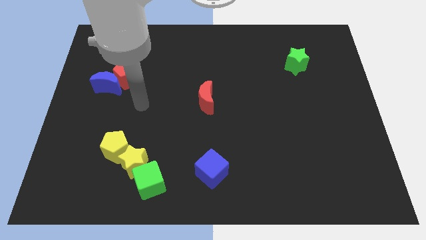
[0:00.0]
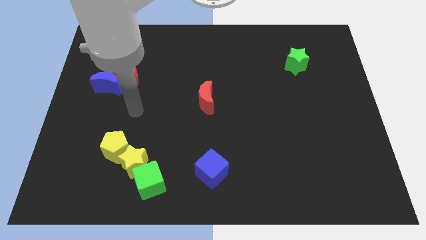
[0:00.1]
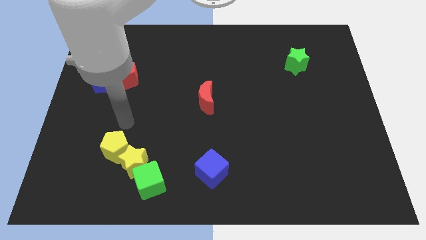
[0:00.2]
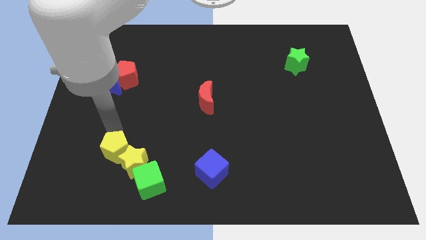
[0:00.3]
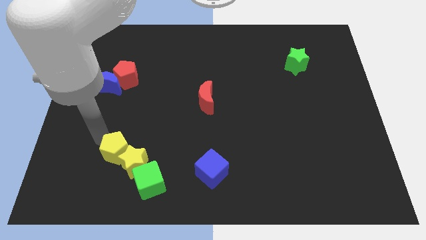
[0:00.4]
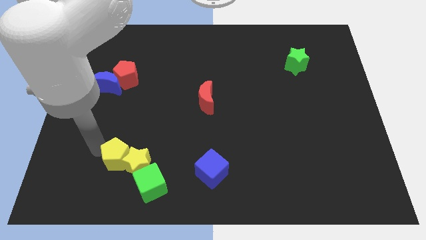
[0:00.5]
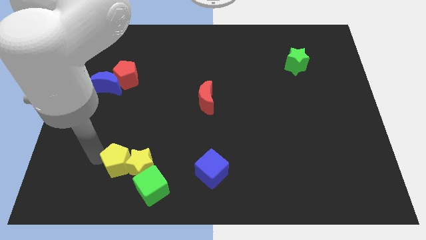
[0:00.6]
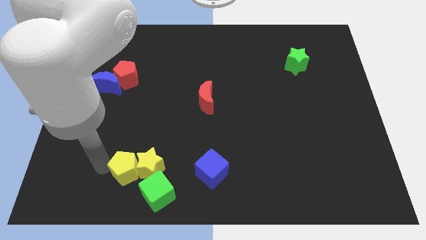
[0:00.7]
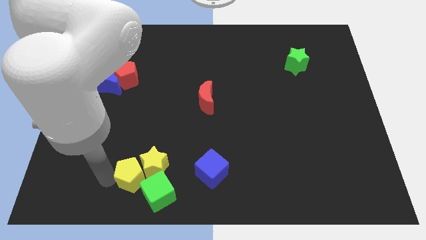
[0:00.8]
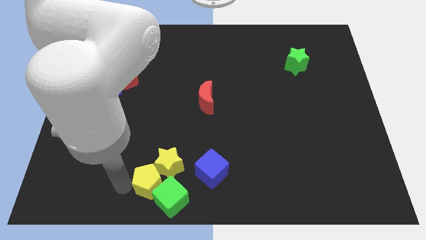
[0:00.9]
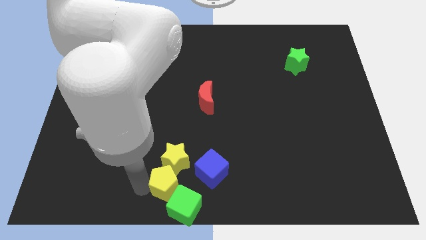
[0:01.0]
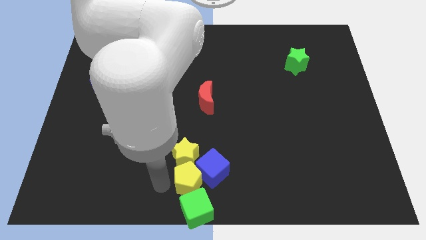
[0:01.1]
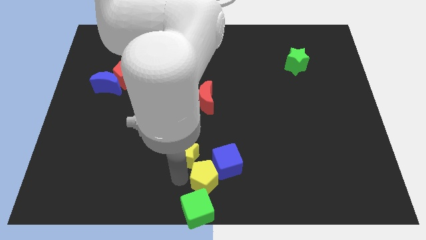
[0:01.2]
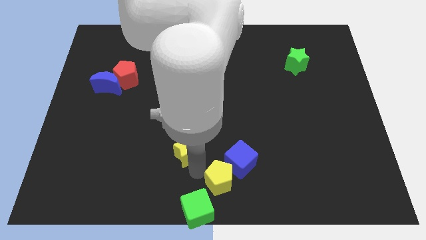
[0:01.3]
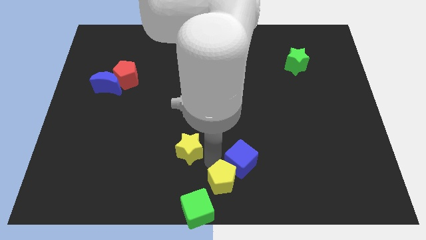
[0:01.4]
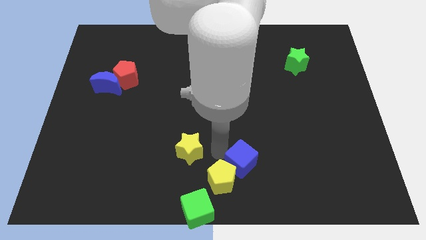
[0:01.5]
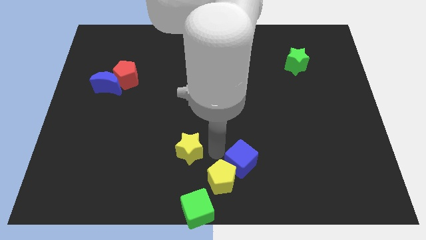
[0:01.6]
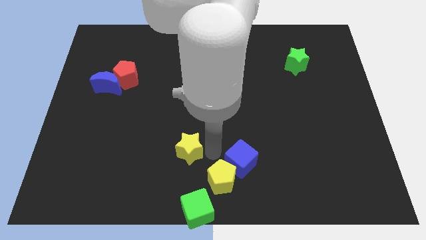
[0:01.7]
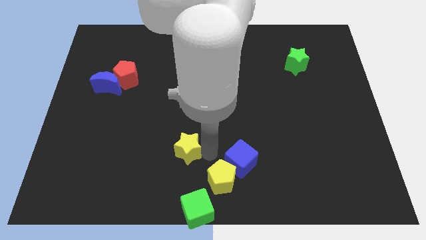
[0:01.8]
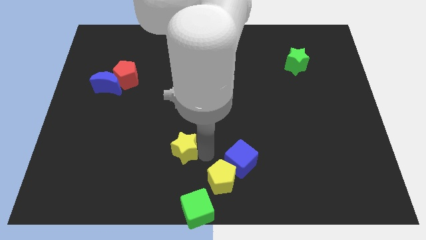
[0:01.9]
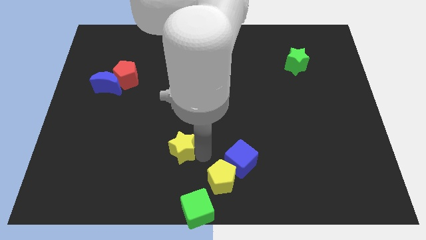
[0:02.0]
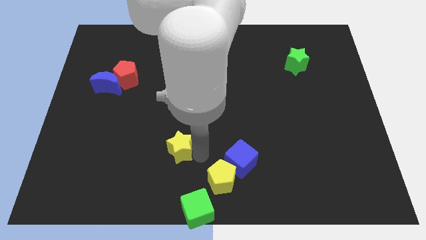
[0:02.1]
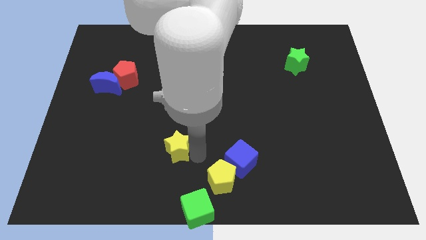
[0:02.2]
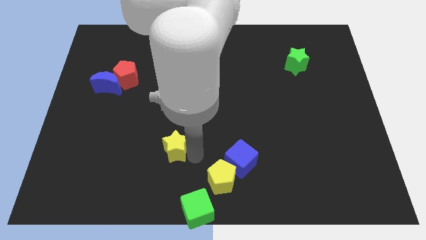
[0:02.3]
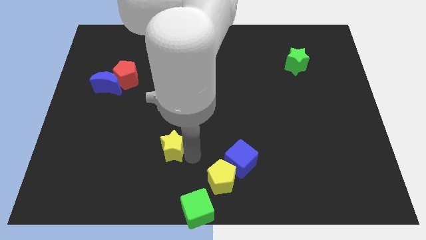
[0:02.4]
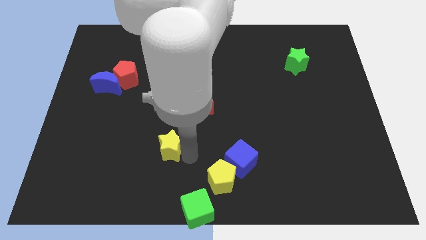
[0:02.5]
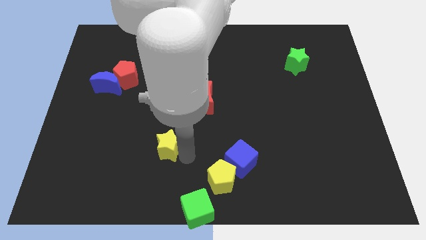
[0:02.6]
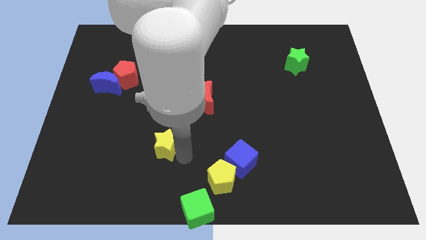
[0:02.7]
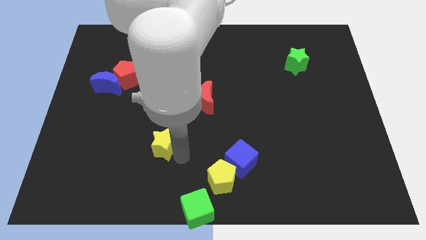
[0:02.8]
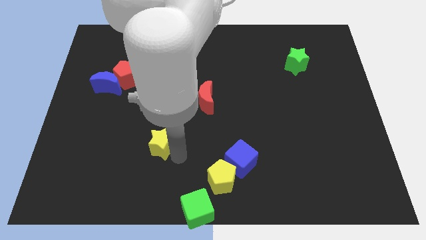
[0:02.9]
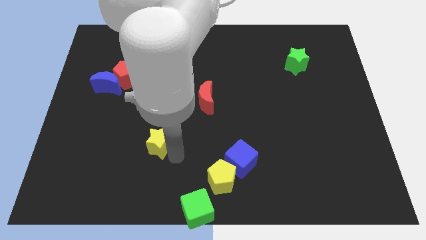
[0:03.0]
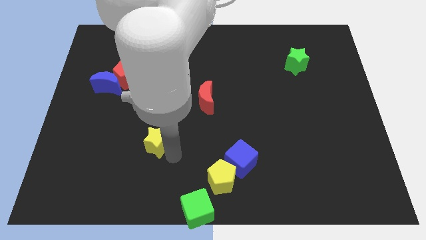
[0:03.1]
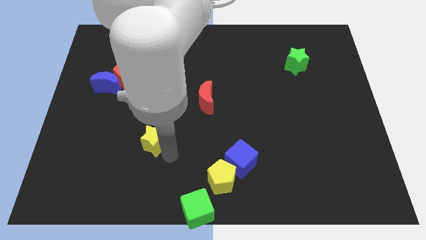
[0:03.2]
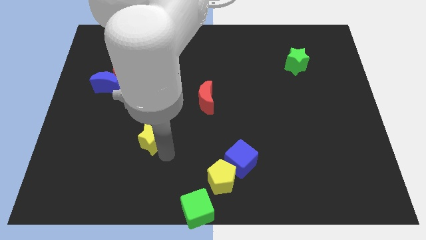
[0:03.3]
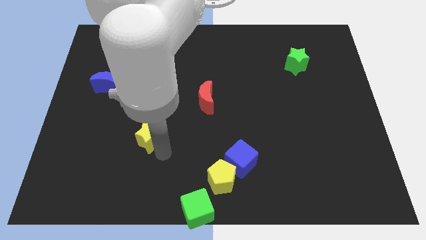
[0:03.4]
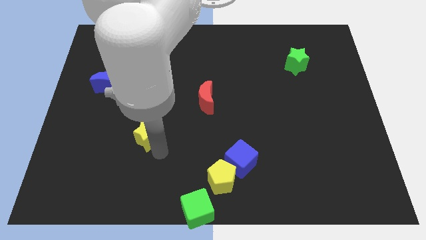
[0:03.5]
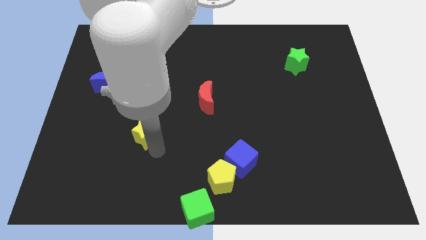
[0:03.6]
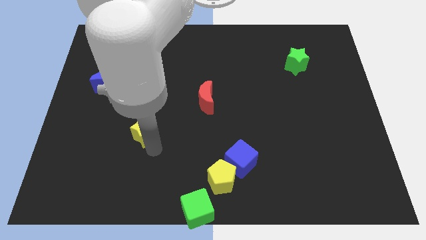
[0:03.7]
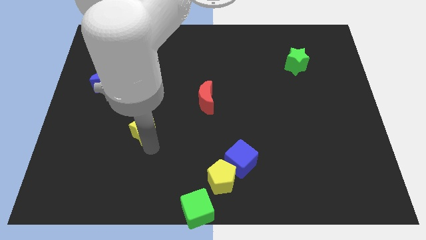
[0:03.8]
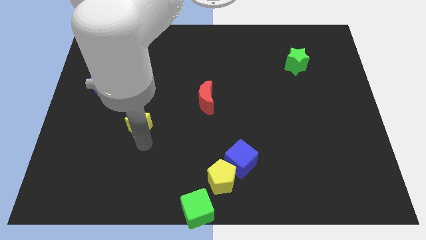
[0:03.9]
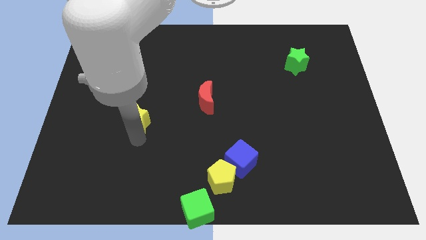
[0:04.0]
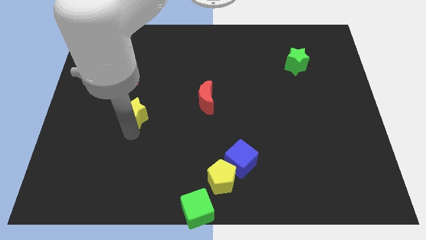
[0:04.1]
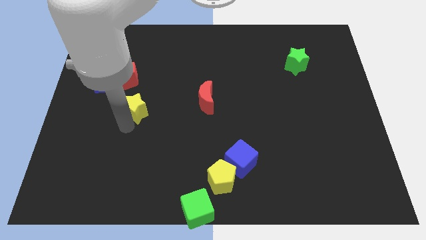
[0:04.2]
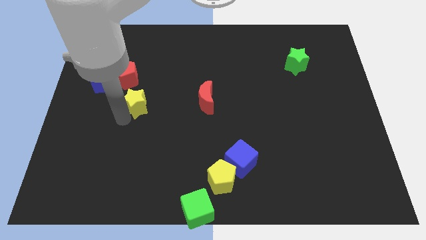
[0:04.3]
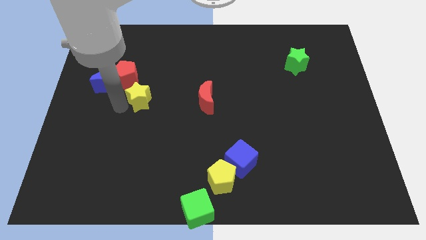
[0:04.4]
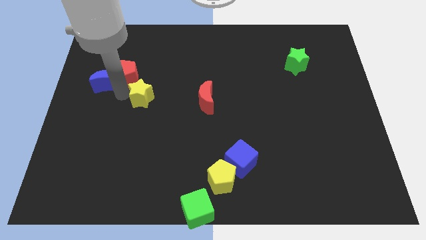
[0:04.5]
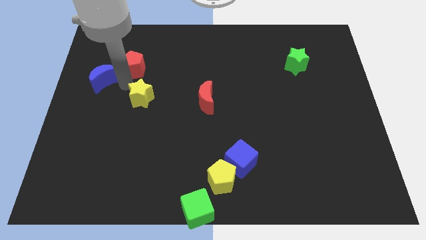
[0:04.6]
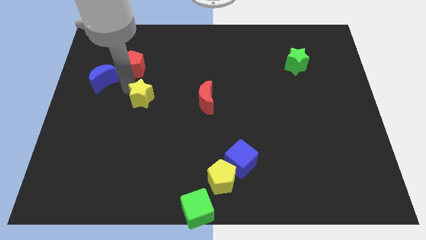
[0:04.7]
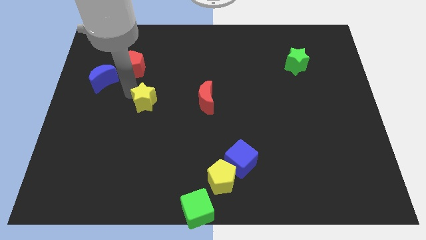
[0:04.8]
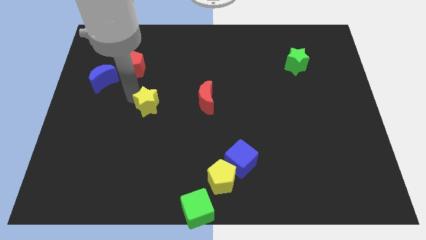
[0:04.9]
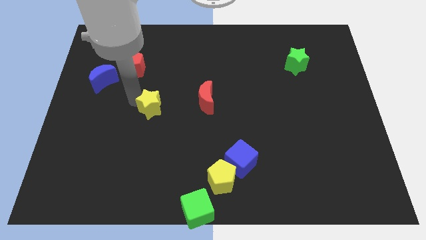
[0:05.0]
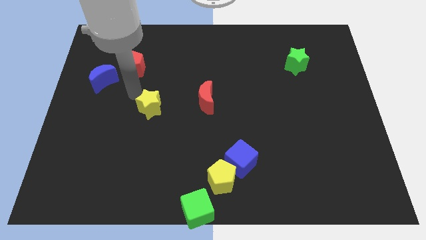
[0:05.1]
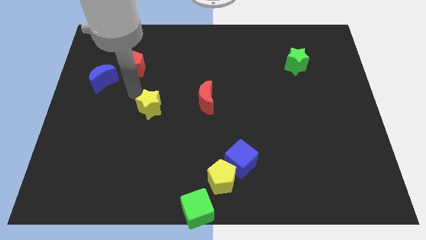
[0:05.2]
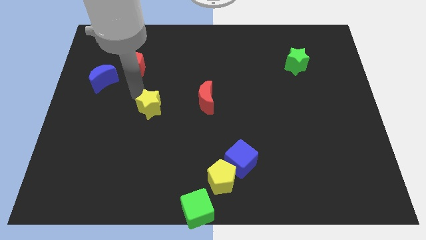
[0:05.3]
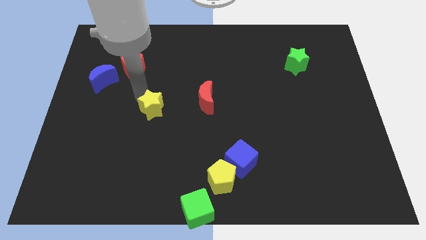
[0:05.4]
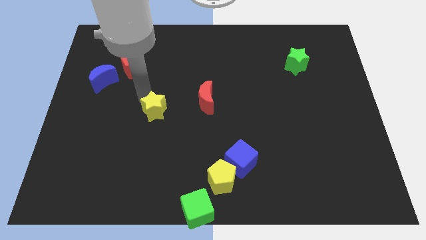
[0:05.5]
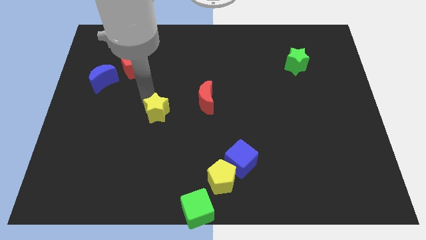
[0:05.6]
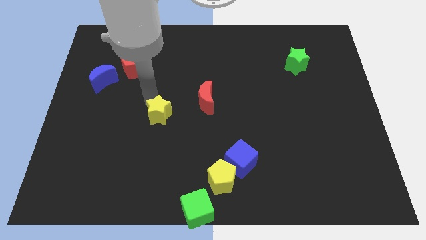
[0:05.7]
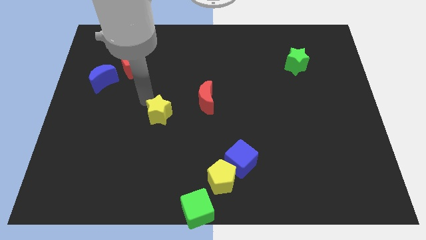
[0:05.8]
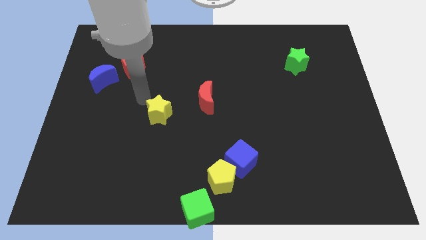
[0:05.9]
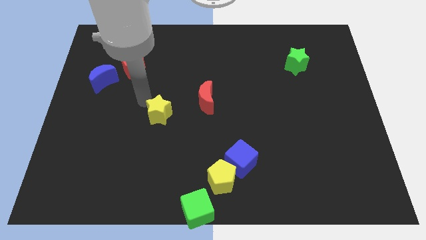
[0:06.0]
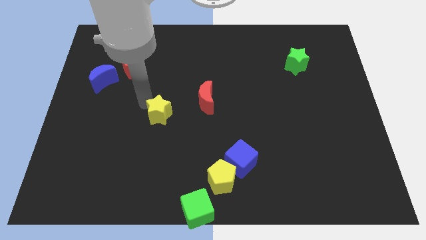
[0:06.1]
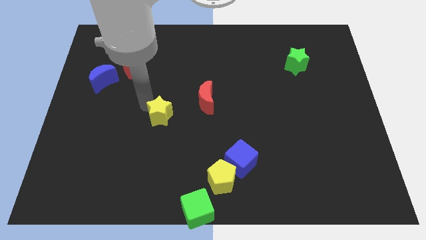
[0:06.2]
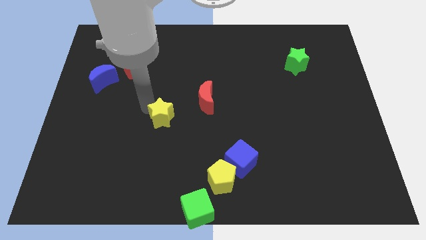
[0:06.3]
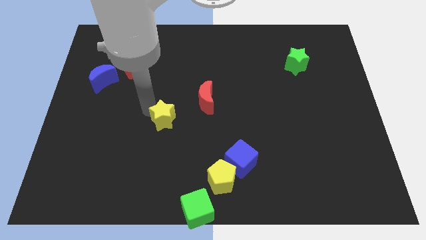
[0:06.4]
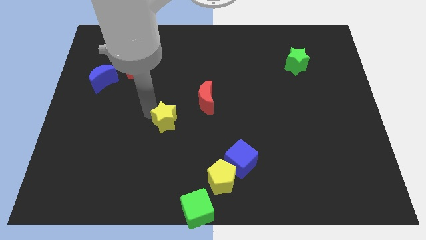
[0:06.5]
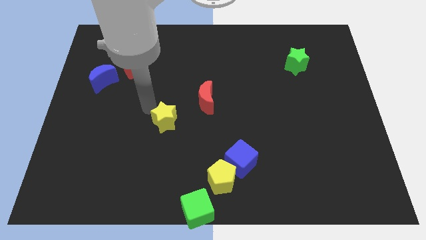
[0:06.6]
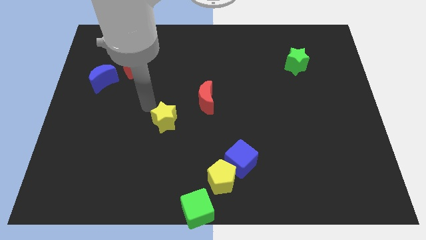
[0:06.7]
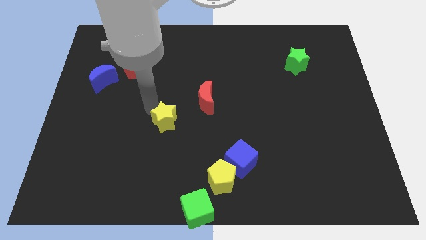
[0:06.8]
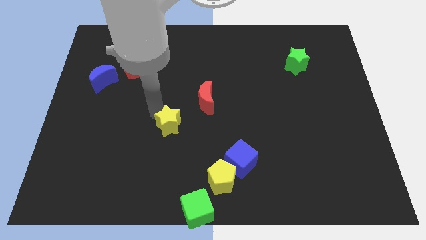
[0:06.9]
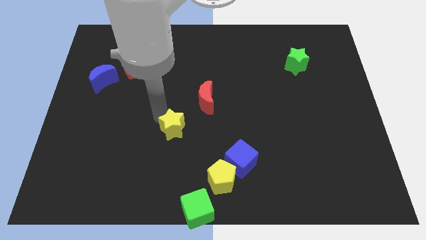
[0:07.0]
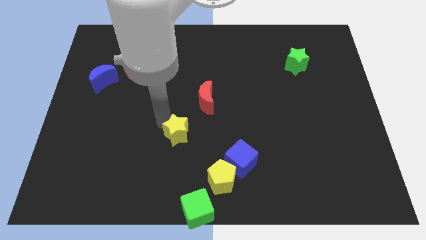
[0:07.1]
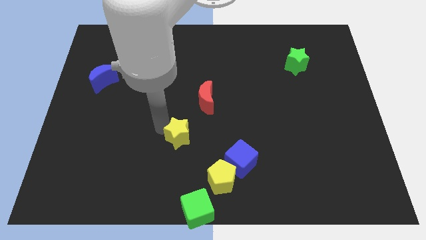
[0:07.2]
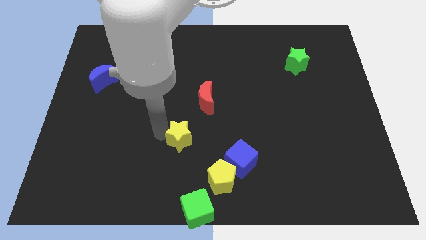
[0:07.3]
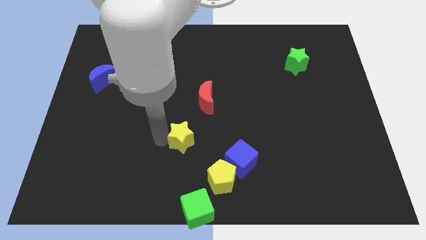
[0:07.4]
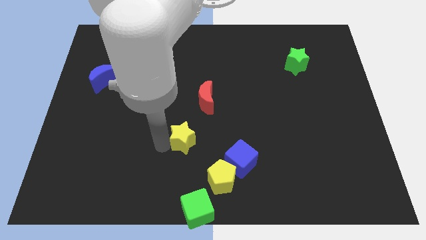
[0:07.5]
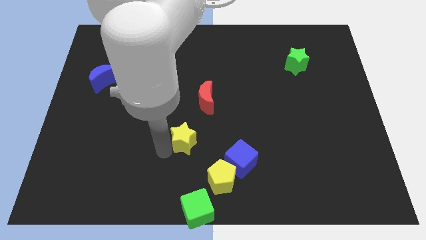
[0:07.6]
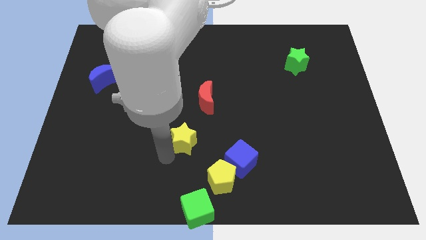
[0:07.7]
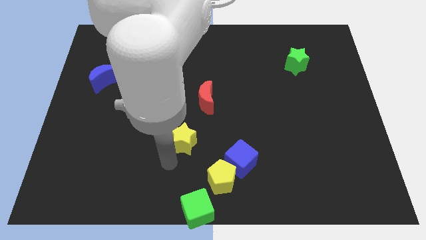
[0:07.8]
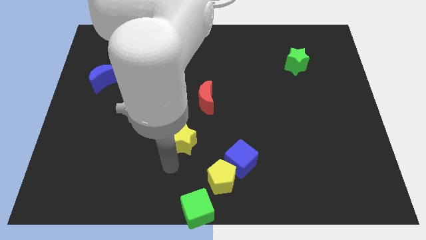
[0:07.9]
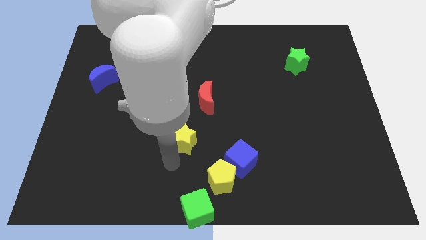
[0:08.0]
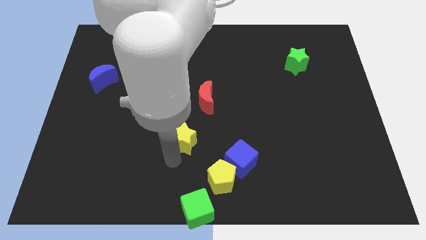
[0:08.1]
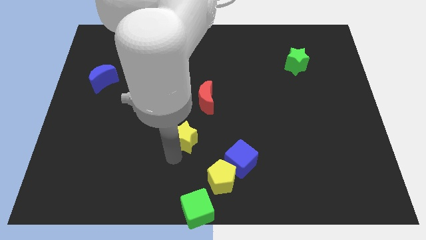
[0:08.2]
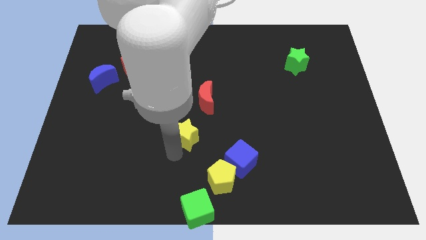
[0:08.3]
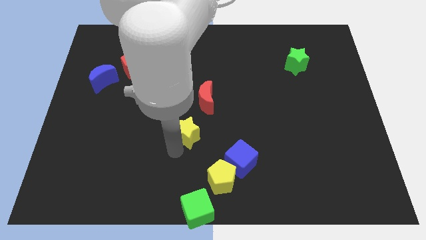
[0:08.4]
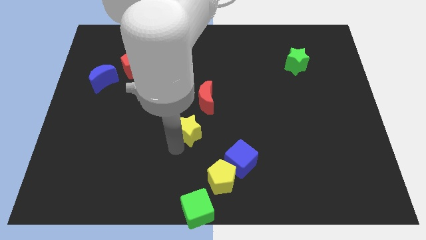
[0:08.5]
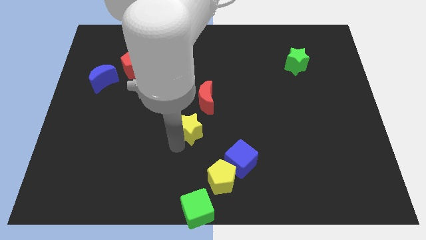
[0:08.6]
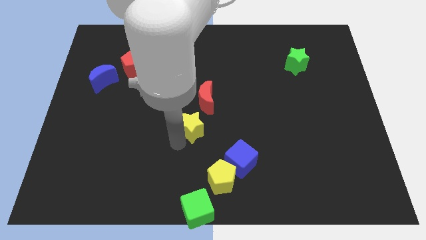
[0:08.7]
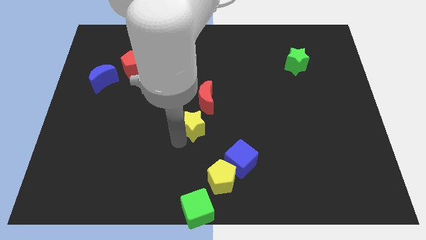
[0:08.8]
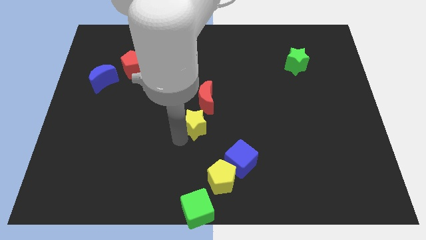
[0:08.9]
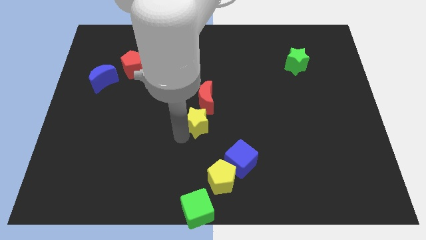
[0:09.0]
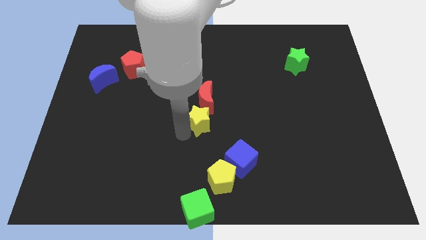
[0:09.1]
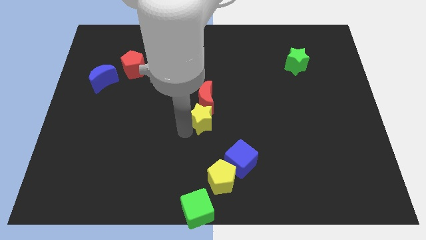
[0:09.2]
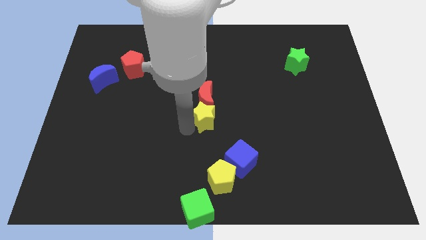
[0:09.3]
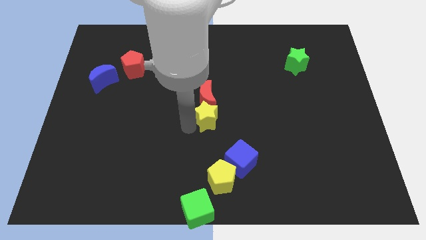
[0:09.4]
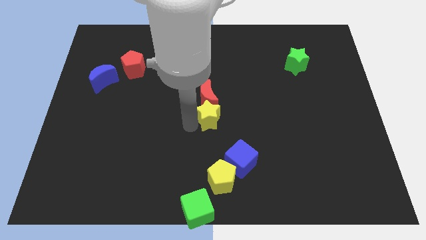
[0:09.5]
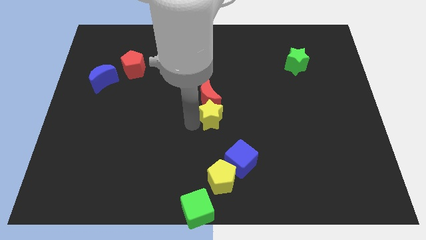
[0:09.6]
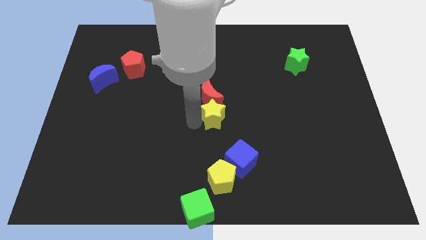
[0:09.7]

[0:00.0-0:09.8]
push the yellow star upwards and then right
